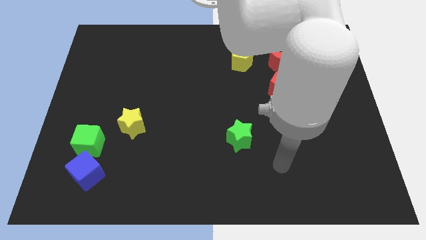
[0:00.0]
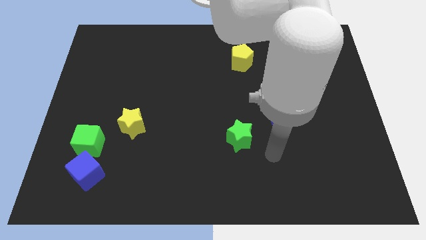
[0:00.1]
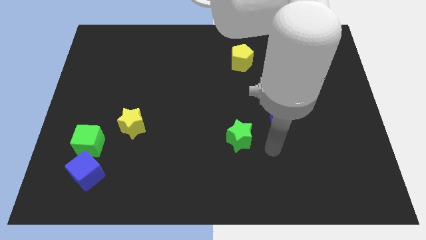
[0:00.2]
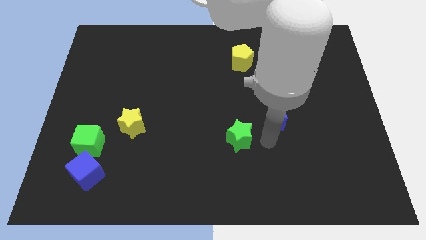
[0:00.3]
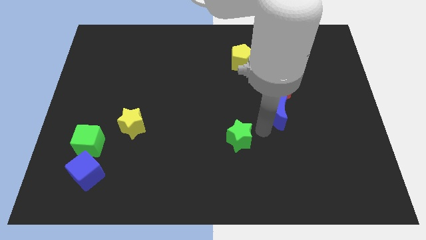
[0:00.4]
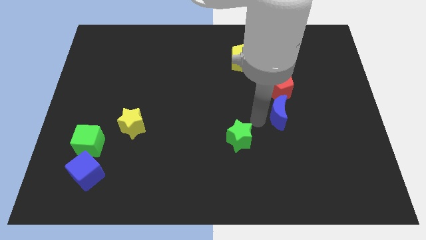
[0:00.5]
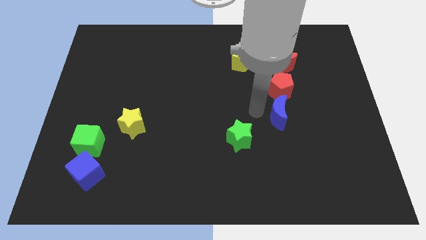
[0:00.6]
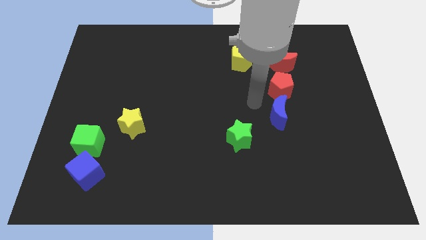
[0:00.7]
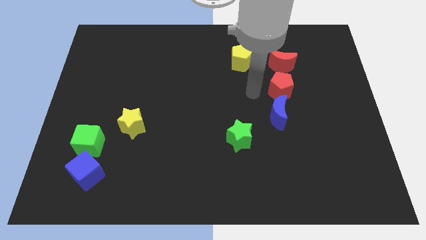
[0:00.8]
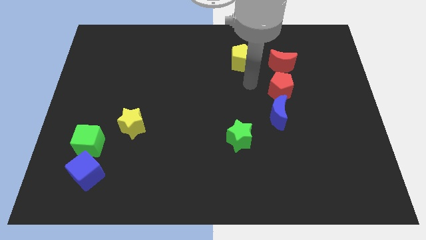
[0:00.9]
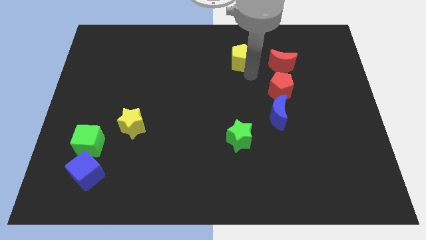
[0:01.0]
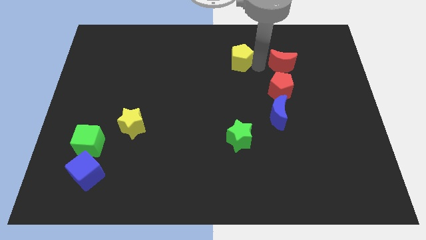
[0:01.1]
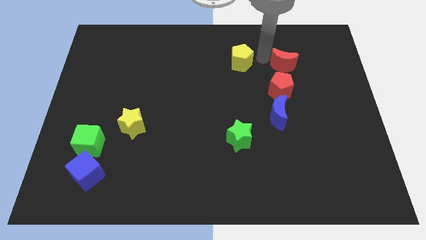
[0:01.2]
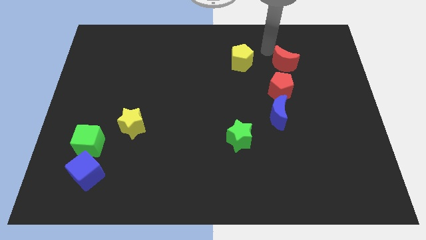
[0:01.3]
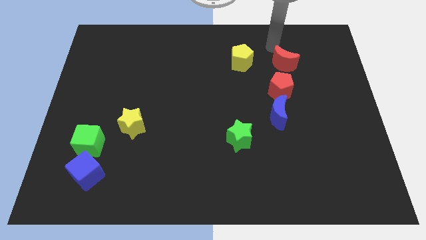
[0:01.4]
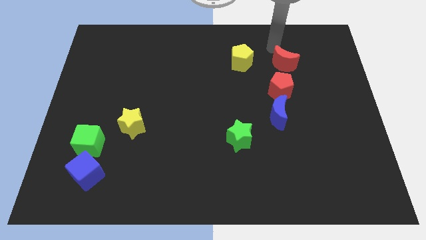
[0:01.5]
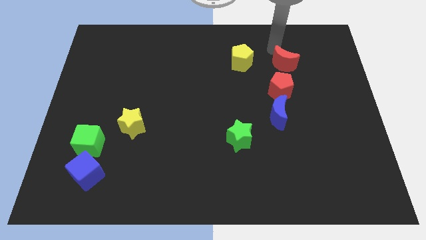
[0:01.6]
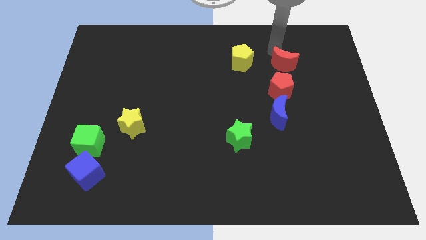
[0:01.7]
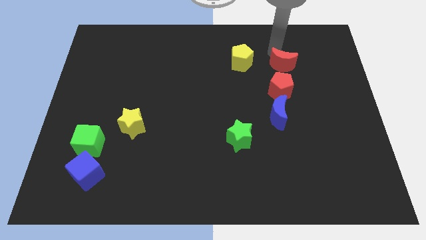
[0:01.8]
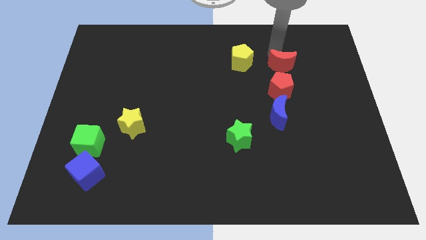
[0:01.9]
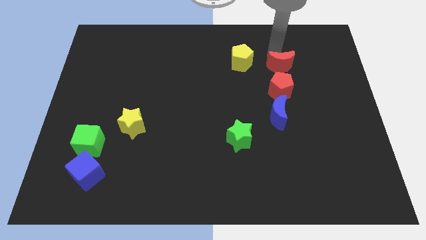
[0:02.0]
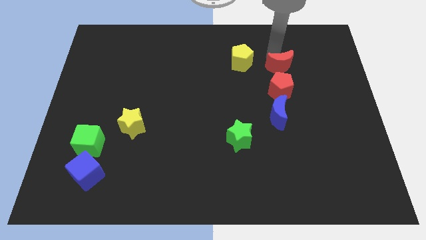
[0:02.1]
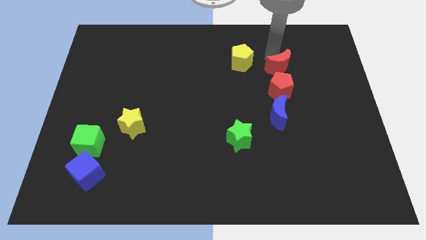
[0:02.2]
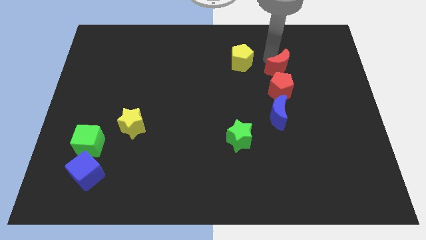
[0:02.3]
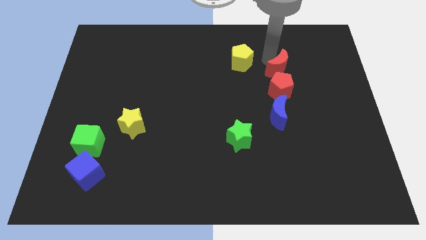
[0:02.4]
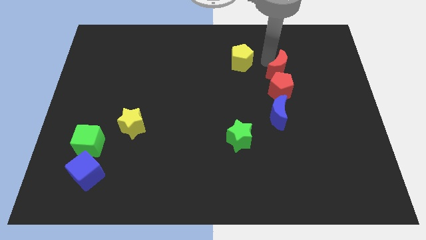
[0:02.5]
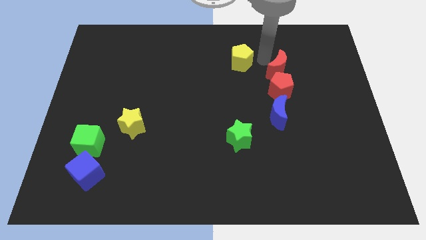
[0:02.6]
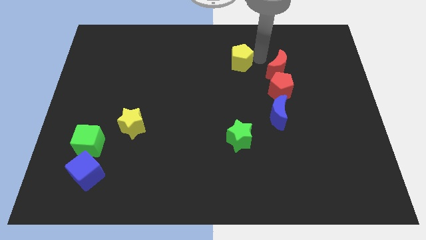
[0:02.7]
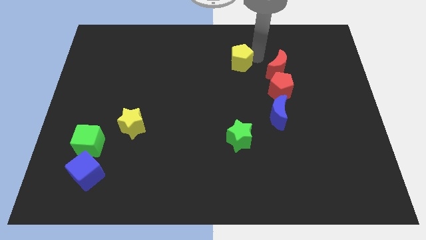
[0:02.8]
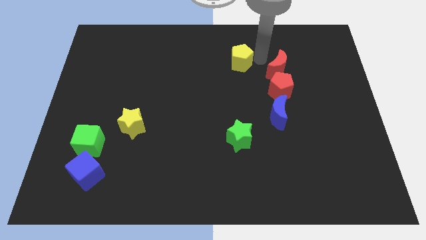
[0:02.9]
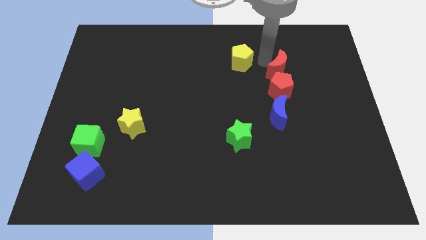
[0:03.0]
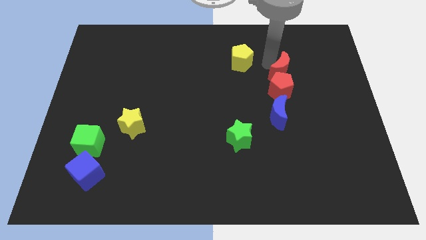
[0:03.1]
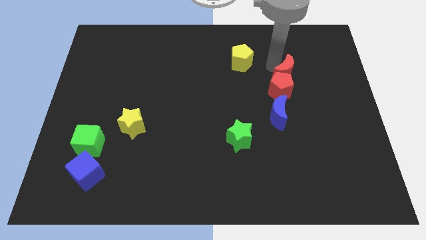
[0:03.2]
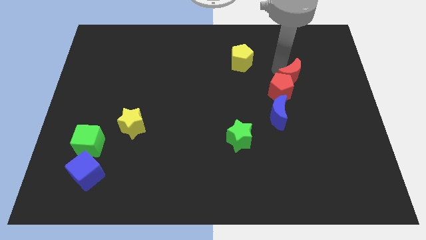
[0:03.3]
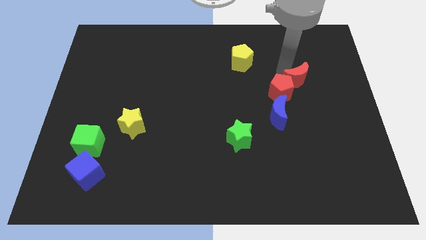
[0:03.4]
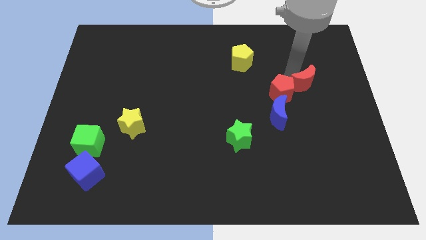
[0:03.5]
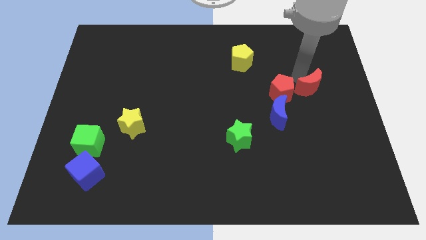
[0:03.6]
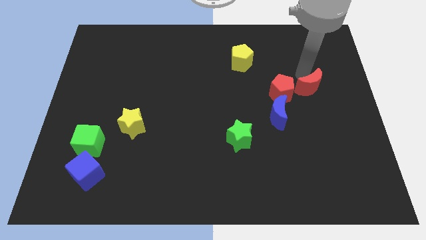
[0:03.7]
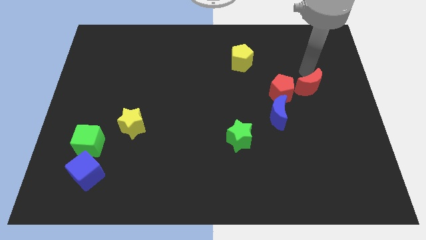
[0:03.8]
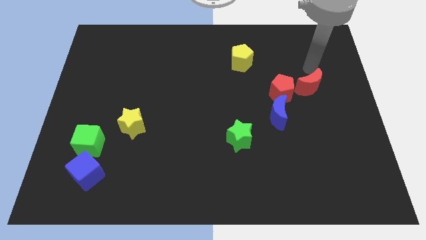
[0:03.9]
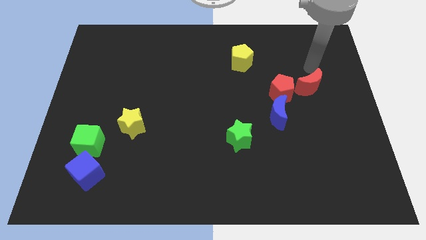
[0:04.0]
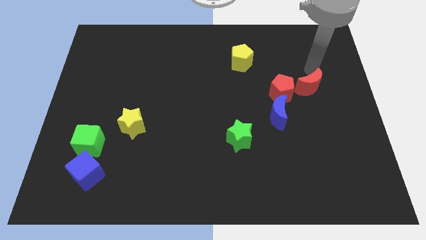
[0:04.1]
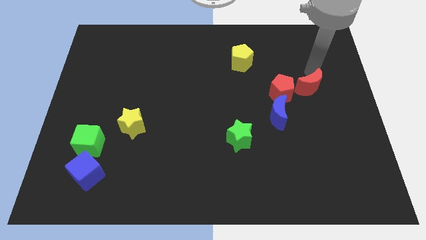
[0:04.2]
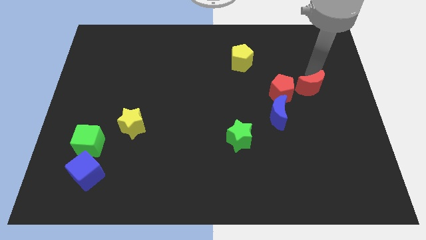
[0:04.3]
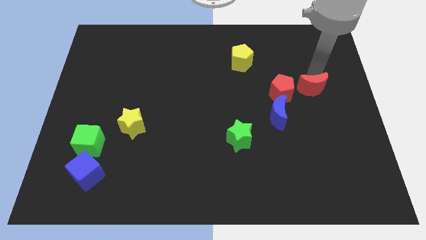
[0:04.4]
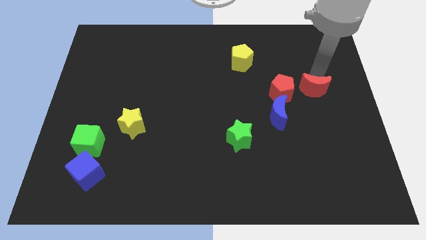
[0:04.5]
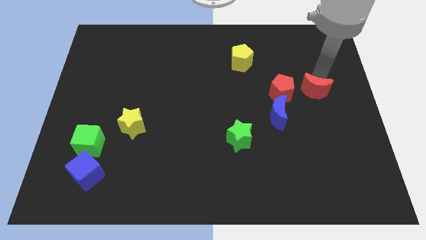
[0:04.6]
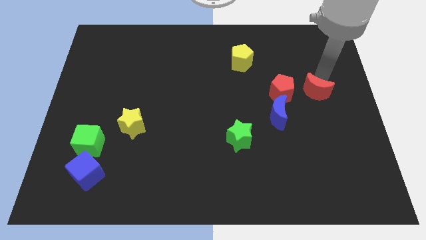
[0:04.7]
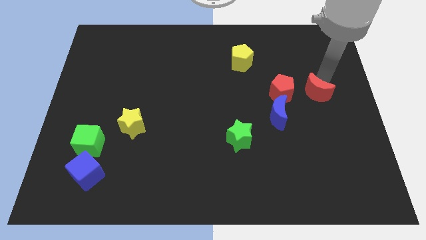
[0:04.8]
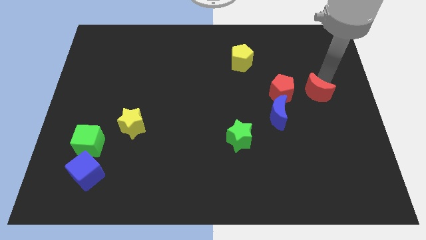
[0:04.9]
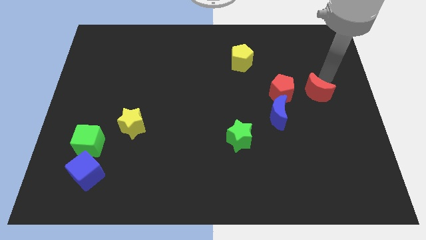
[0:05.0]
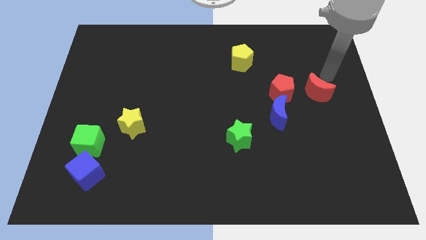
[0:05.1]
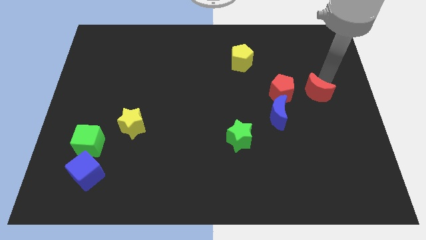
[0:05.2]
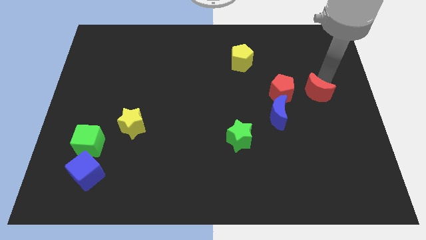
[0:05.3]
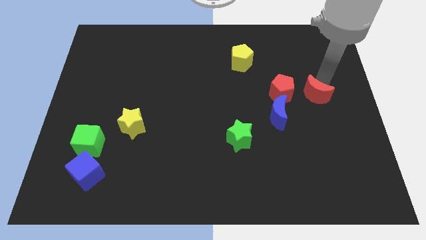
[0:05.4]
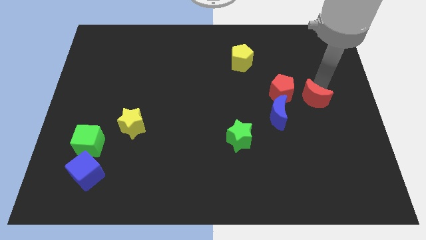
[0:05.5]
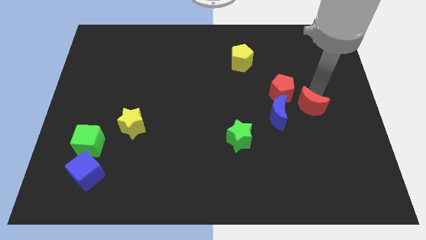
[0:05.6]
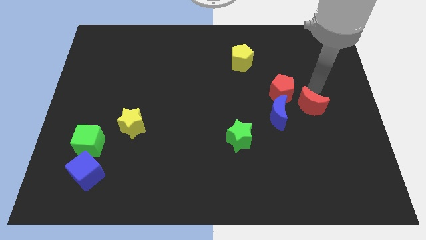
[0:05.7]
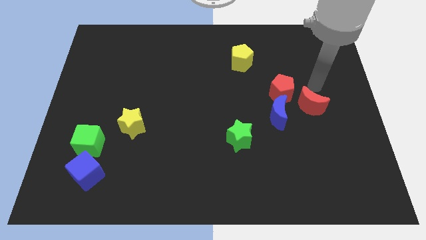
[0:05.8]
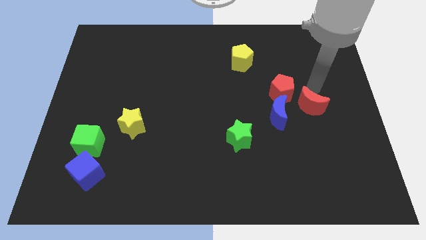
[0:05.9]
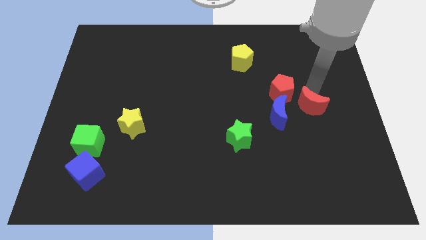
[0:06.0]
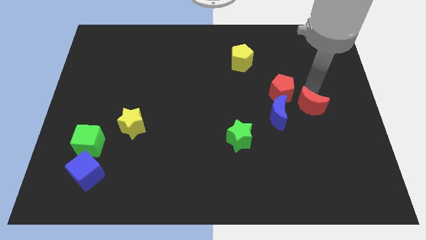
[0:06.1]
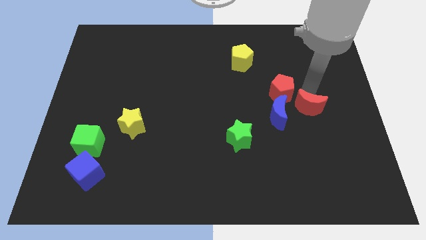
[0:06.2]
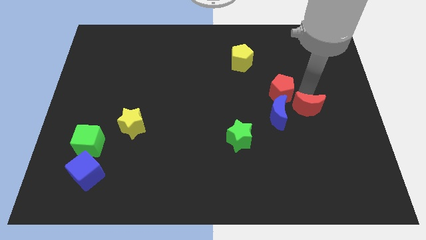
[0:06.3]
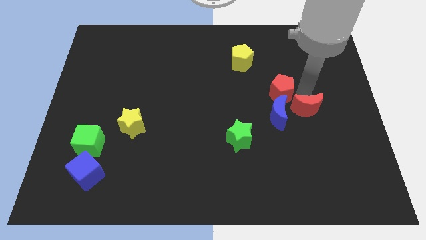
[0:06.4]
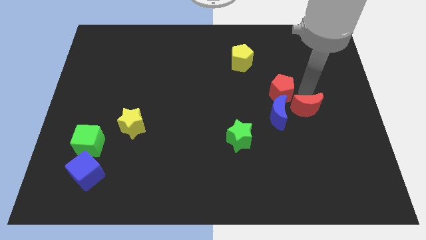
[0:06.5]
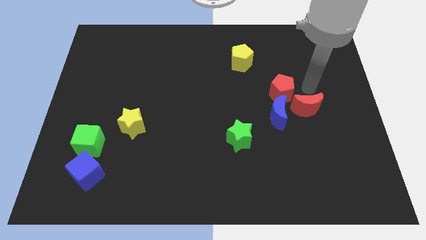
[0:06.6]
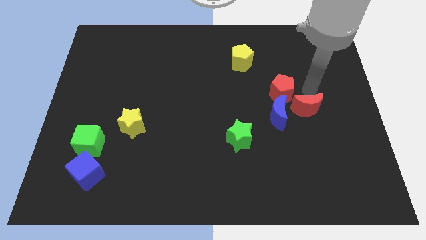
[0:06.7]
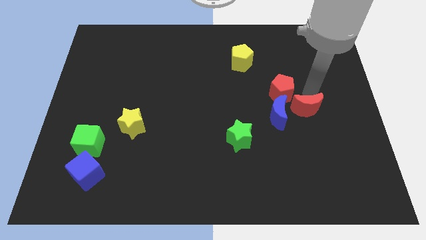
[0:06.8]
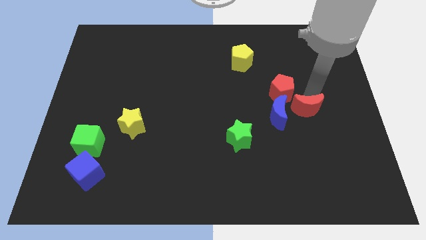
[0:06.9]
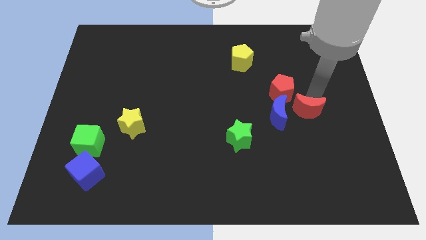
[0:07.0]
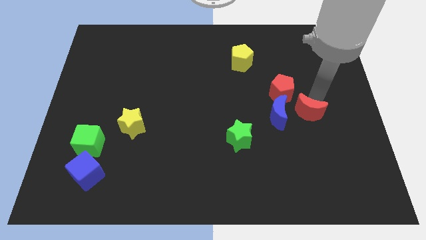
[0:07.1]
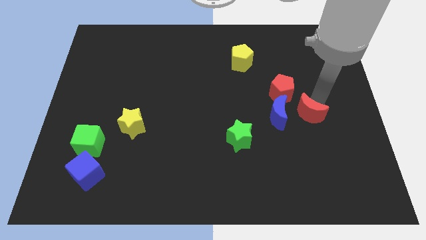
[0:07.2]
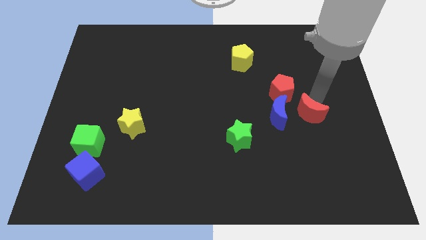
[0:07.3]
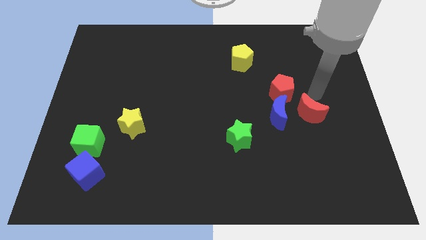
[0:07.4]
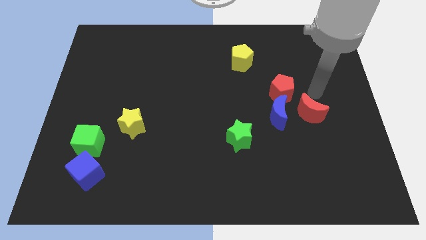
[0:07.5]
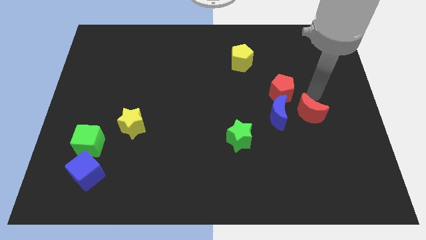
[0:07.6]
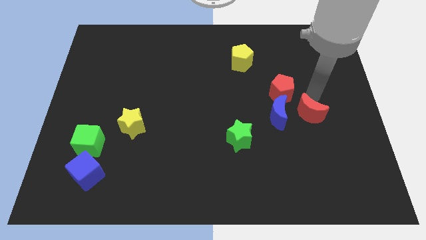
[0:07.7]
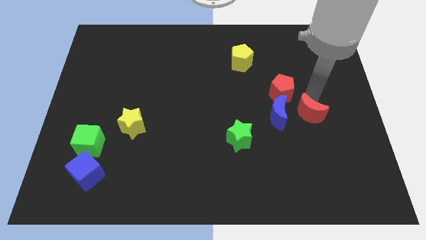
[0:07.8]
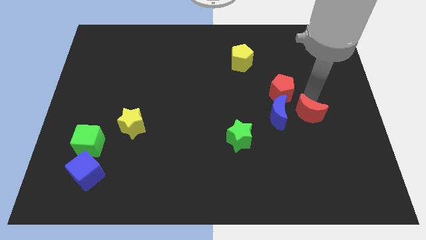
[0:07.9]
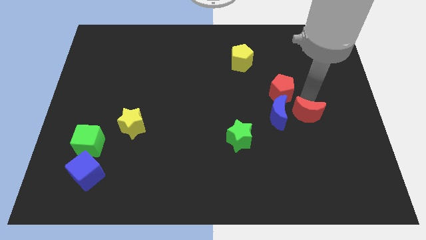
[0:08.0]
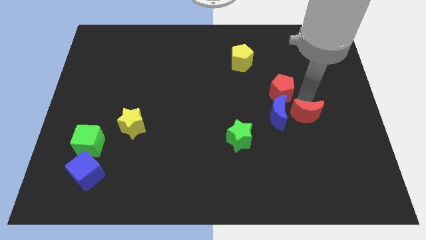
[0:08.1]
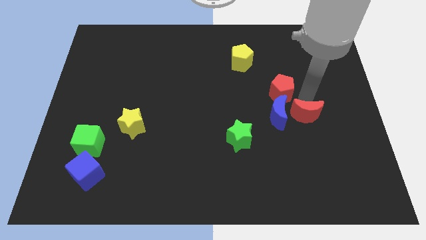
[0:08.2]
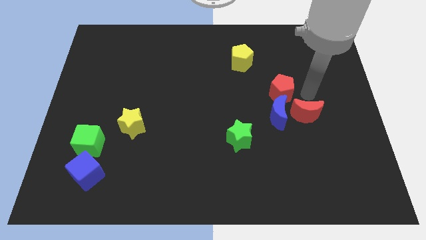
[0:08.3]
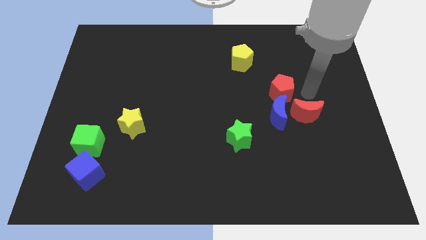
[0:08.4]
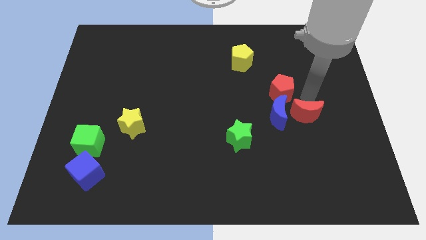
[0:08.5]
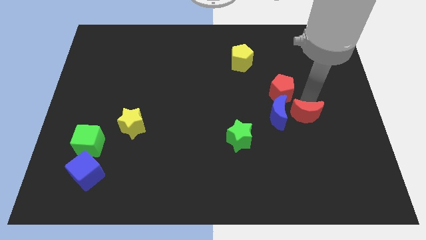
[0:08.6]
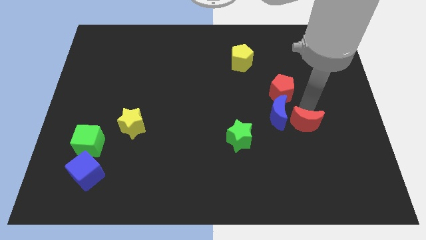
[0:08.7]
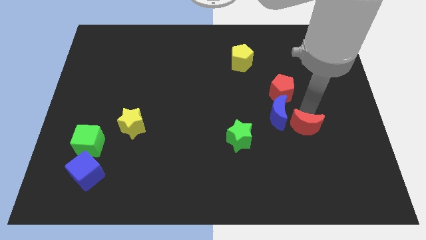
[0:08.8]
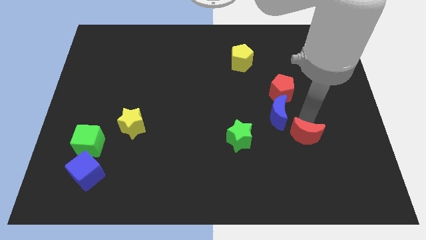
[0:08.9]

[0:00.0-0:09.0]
push the red moon down
